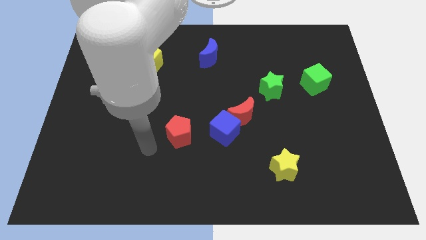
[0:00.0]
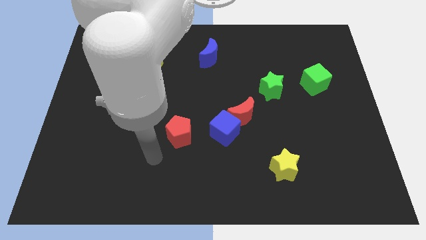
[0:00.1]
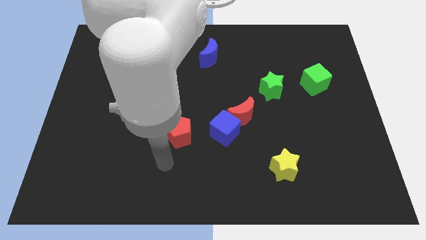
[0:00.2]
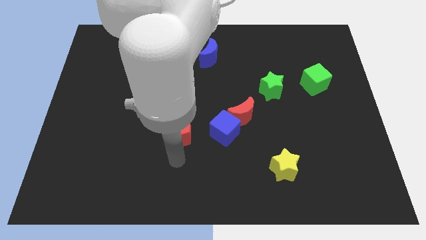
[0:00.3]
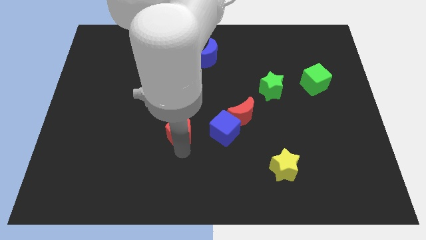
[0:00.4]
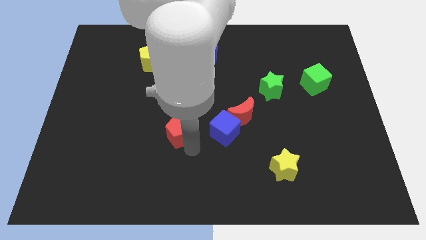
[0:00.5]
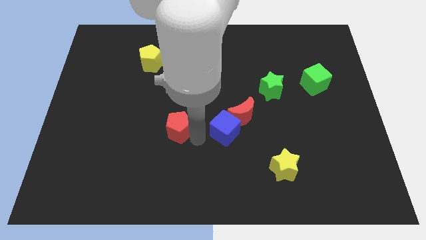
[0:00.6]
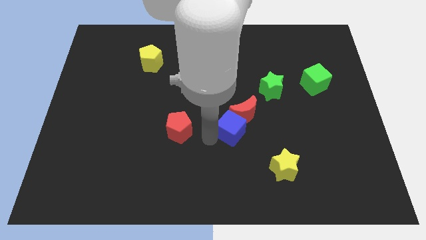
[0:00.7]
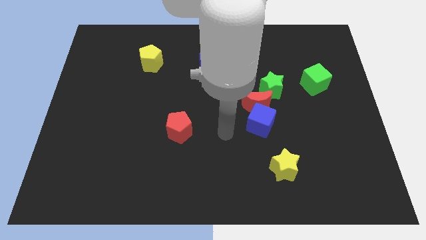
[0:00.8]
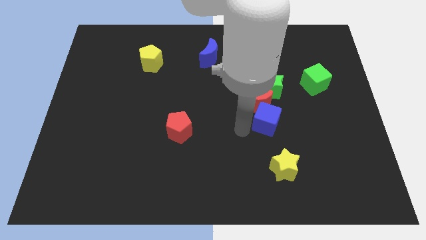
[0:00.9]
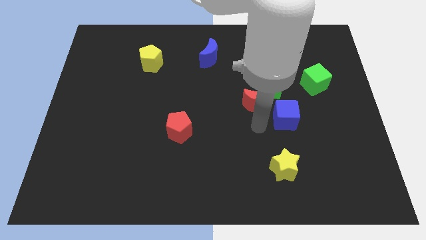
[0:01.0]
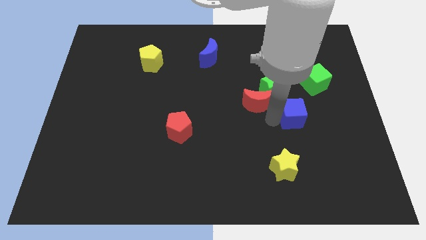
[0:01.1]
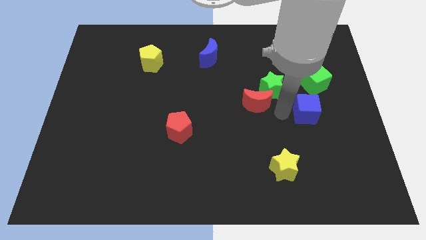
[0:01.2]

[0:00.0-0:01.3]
pull the red moon apart from the blue cube

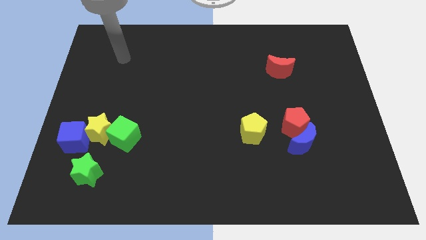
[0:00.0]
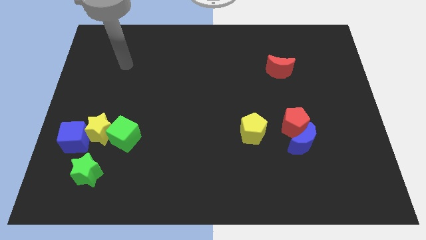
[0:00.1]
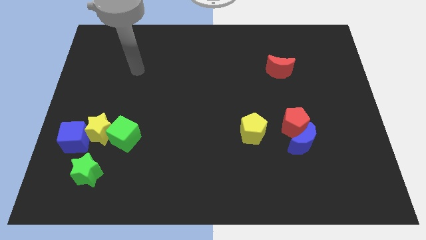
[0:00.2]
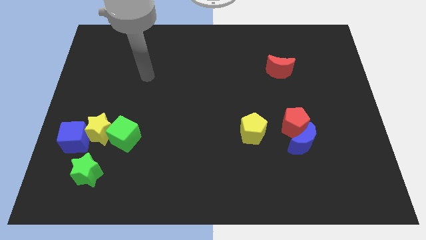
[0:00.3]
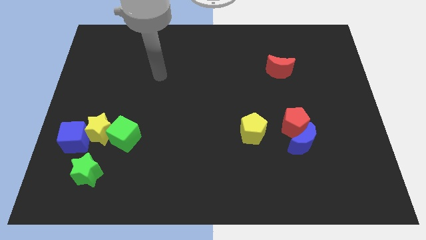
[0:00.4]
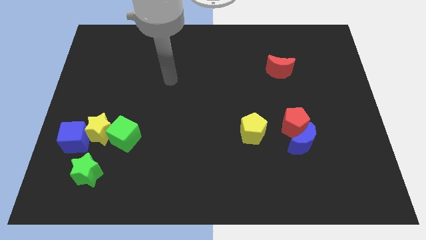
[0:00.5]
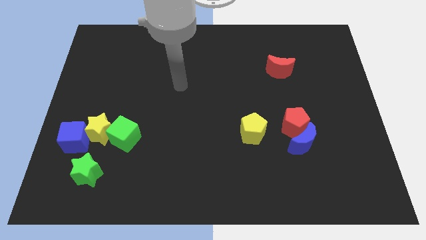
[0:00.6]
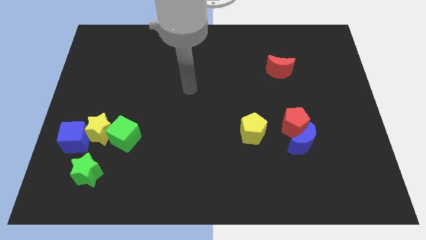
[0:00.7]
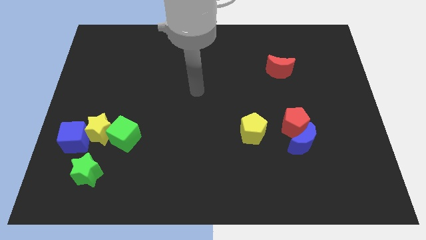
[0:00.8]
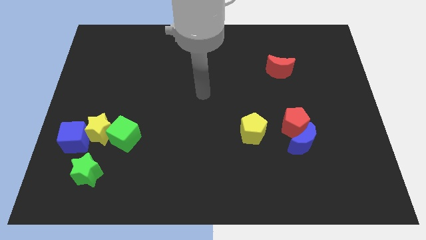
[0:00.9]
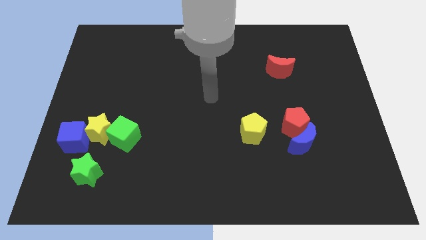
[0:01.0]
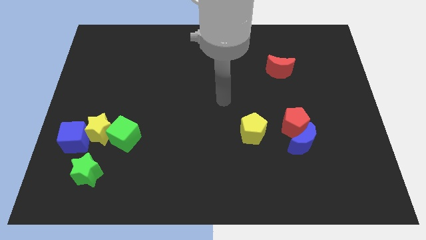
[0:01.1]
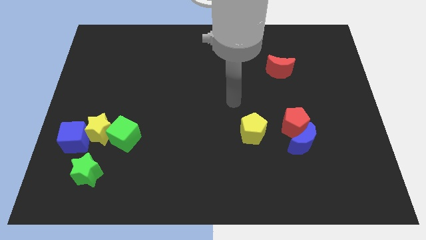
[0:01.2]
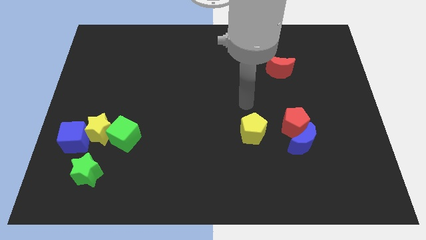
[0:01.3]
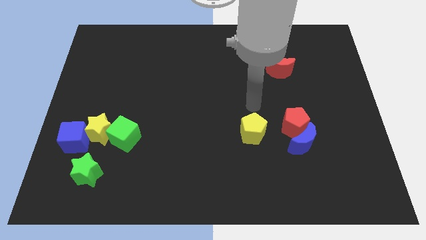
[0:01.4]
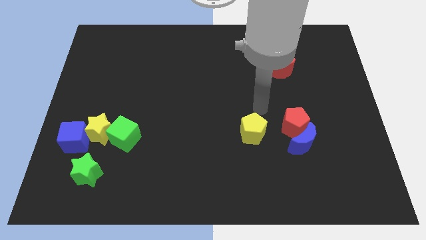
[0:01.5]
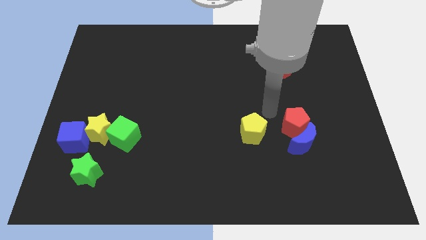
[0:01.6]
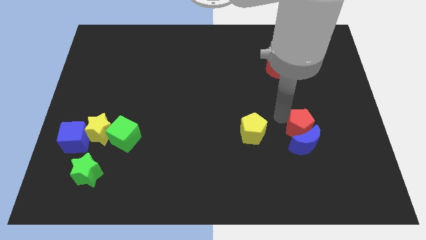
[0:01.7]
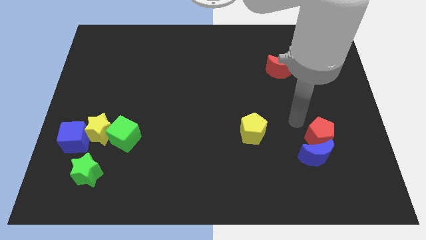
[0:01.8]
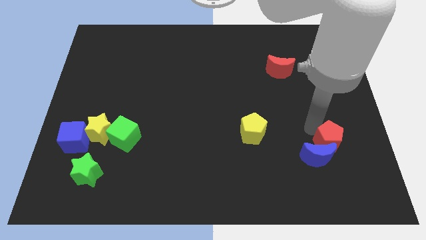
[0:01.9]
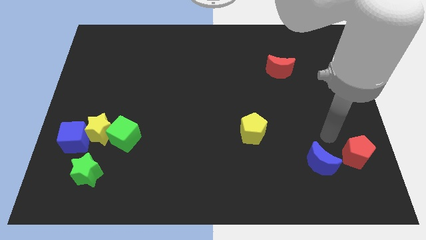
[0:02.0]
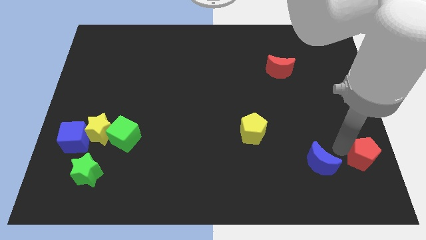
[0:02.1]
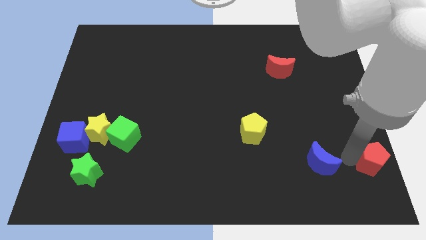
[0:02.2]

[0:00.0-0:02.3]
pull the blue moon apart from the red pentagon

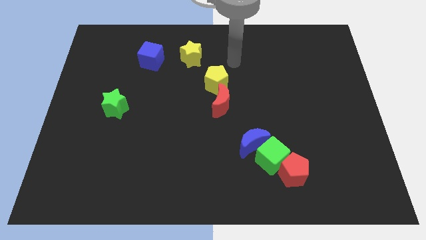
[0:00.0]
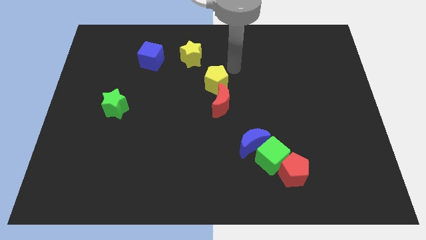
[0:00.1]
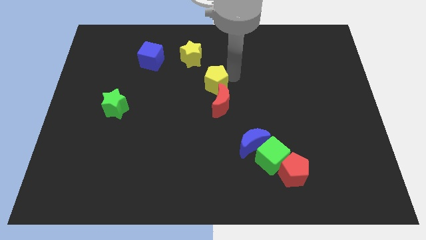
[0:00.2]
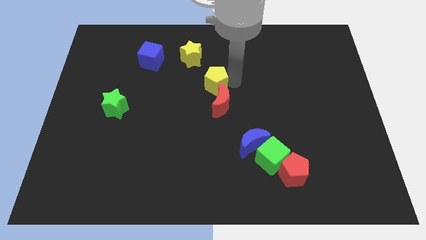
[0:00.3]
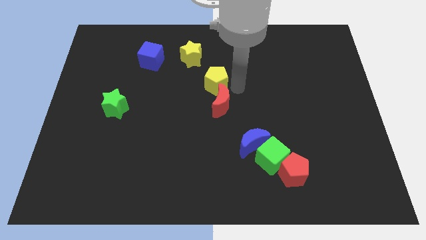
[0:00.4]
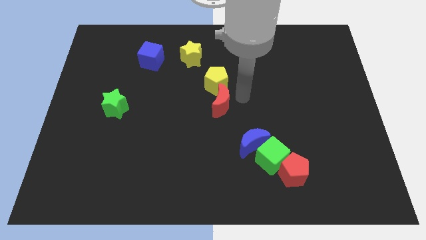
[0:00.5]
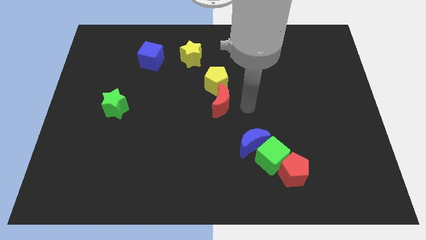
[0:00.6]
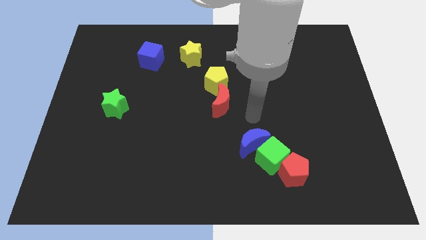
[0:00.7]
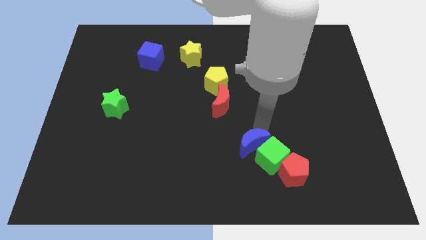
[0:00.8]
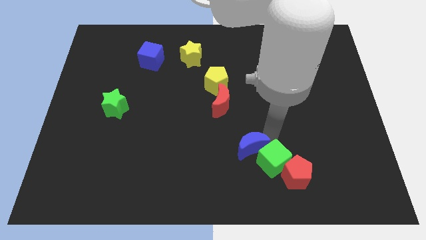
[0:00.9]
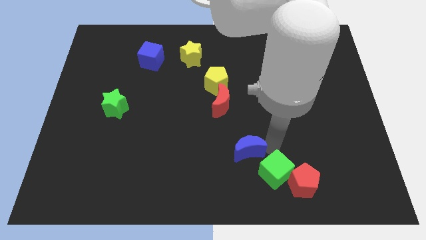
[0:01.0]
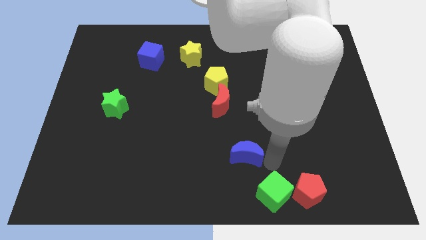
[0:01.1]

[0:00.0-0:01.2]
pull the blue moon apart from the green cube

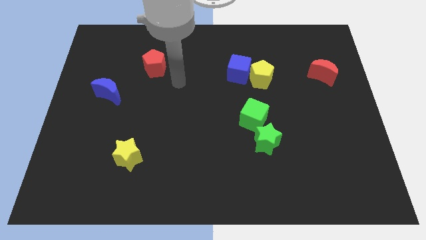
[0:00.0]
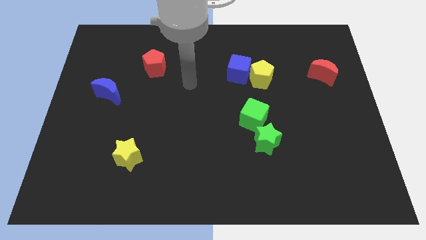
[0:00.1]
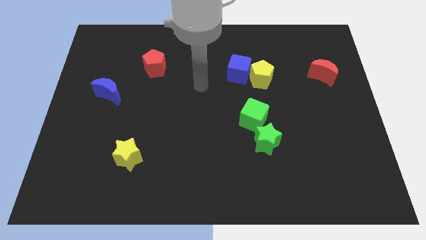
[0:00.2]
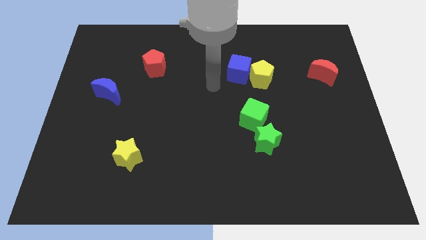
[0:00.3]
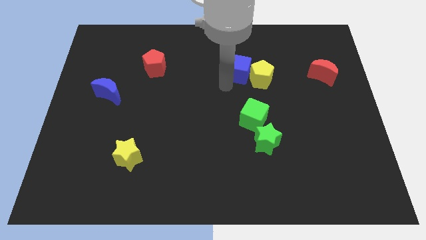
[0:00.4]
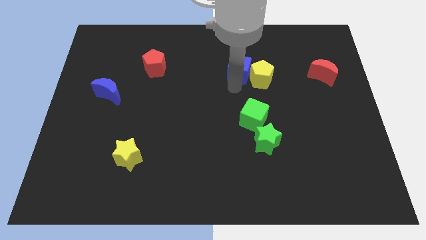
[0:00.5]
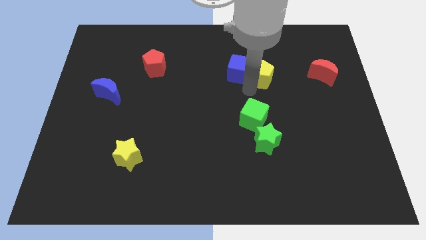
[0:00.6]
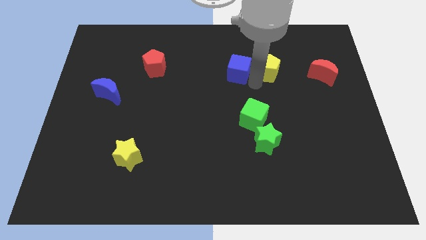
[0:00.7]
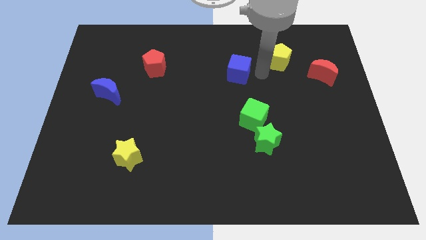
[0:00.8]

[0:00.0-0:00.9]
move the blue cube away from the yellow pentagon

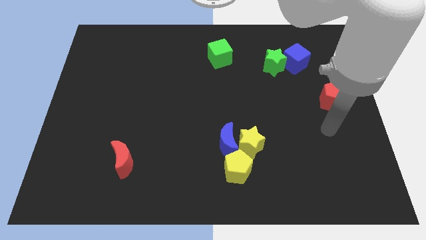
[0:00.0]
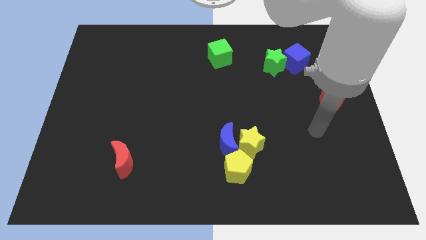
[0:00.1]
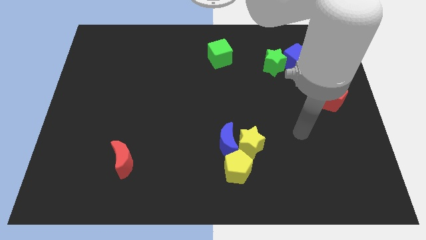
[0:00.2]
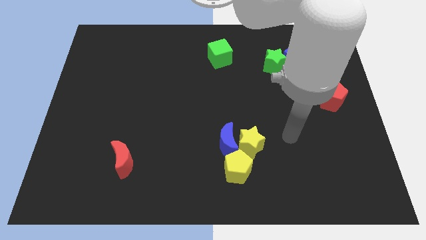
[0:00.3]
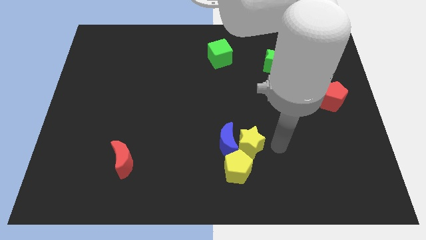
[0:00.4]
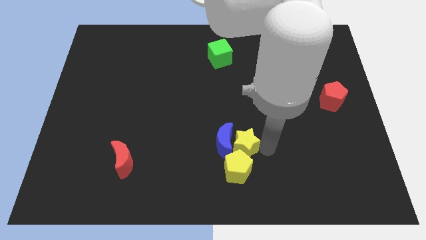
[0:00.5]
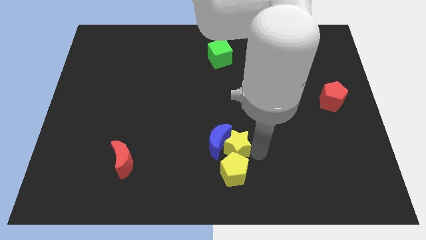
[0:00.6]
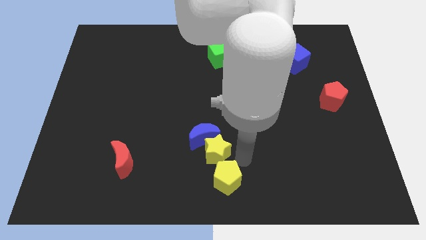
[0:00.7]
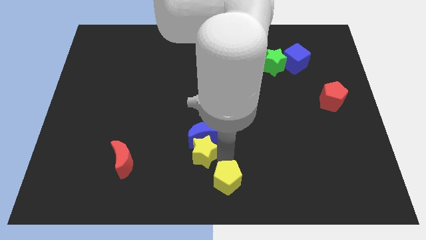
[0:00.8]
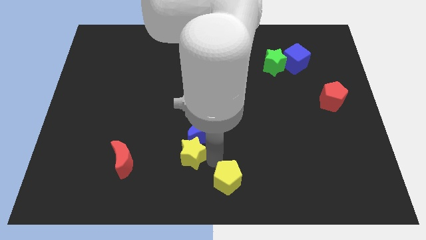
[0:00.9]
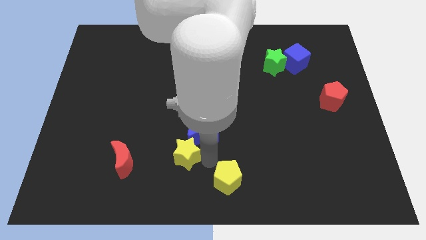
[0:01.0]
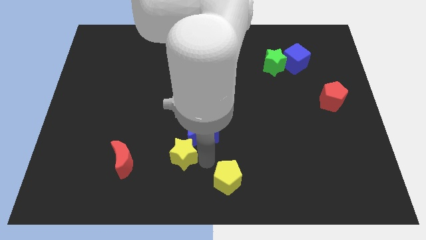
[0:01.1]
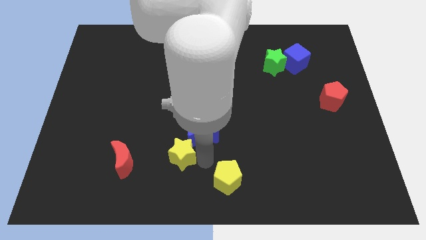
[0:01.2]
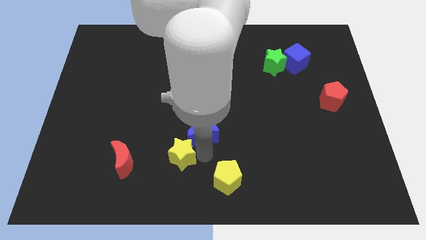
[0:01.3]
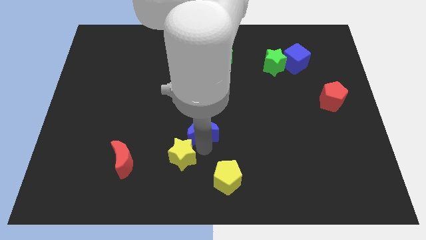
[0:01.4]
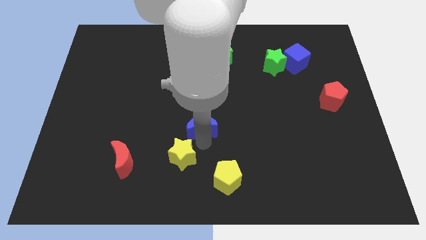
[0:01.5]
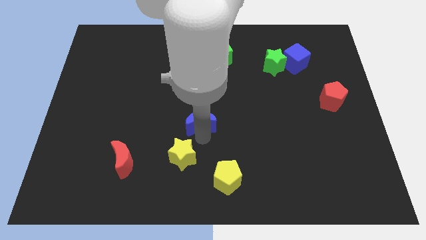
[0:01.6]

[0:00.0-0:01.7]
separate the blue moon from the yellow star and yellow pentagon

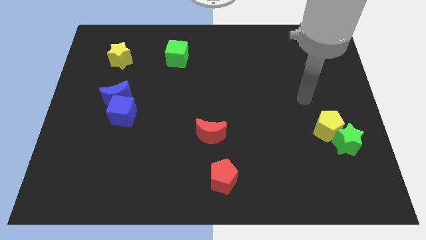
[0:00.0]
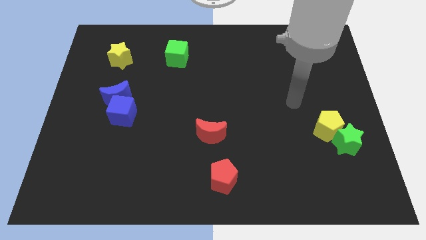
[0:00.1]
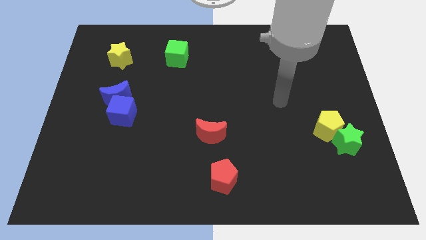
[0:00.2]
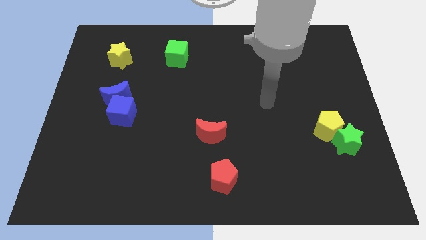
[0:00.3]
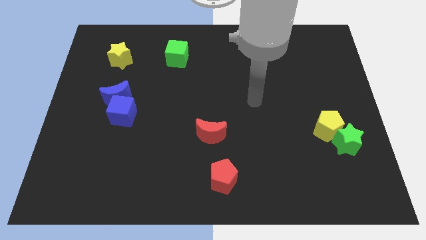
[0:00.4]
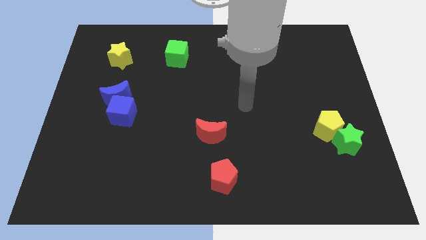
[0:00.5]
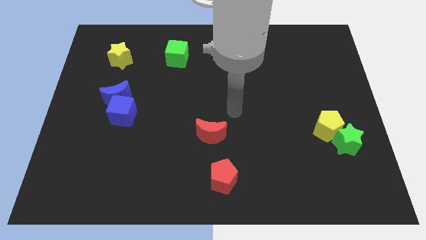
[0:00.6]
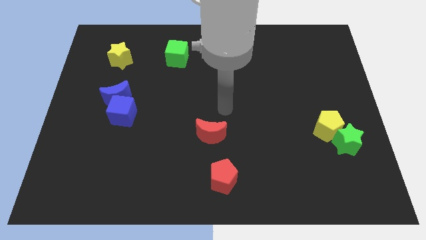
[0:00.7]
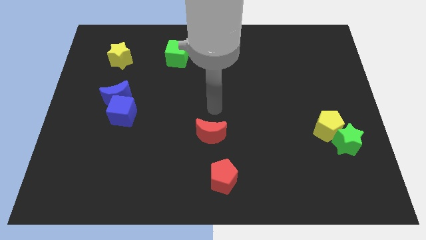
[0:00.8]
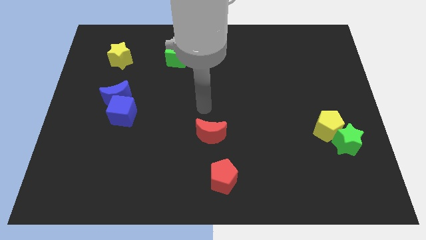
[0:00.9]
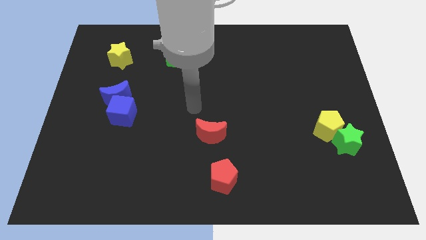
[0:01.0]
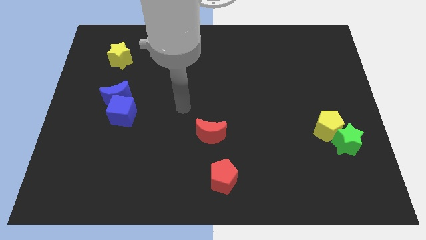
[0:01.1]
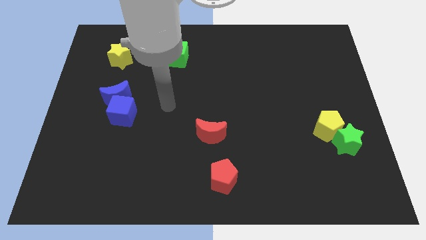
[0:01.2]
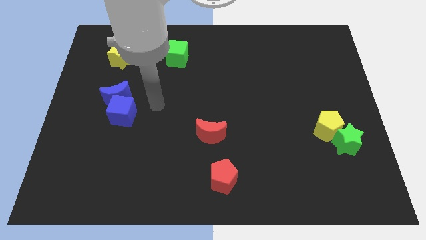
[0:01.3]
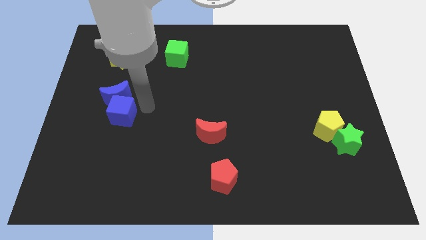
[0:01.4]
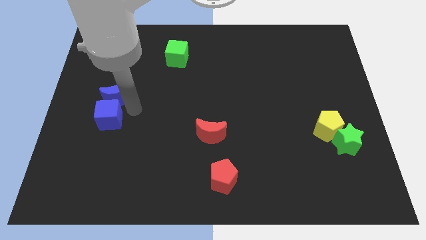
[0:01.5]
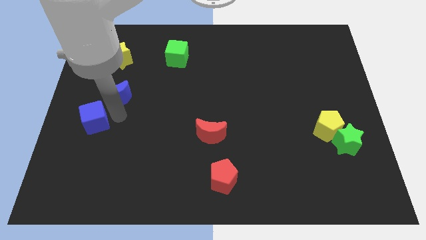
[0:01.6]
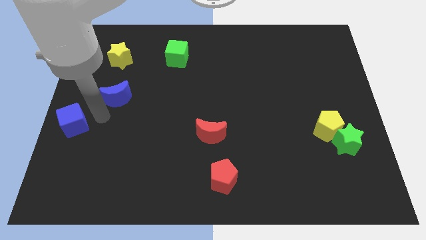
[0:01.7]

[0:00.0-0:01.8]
separate the blue moon from the blue cube
